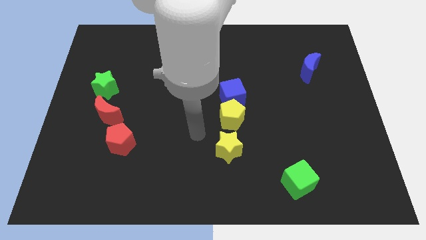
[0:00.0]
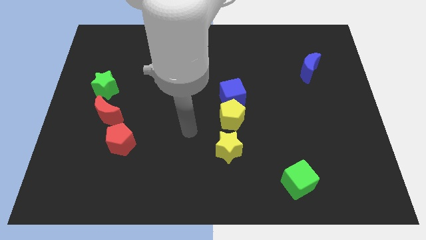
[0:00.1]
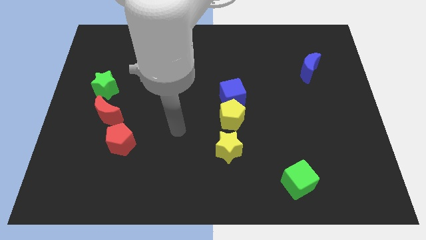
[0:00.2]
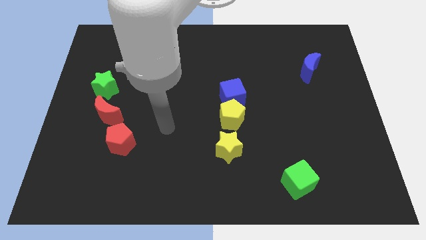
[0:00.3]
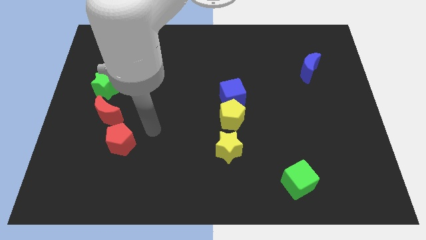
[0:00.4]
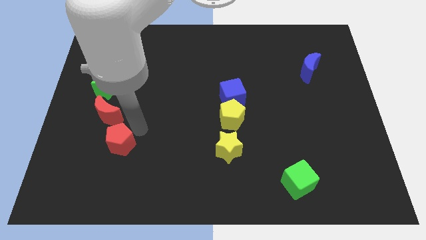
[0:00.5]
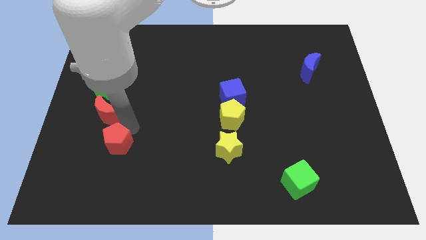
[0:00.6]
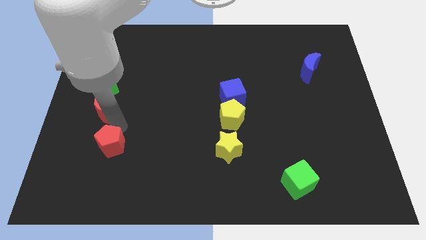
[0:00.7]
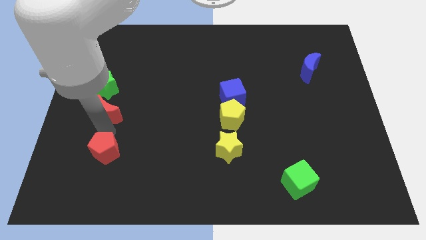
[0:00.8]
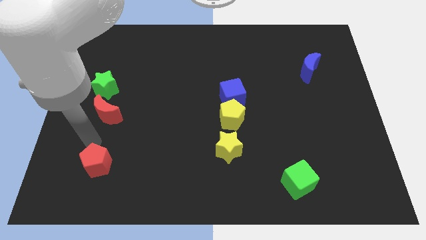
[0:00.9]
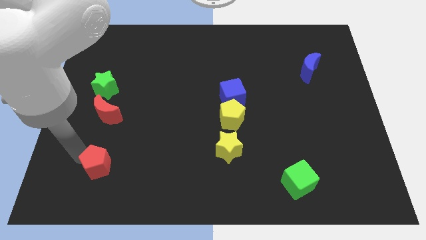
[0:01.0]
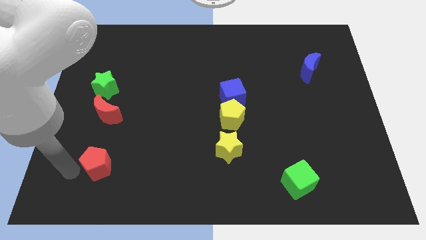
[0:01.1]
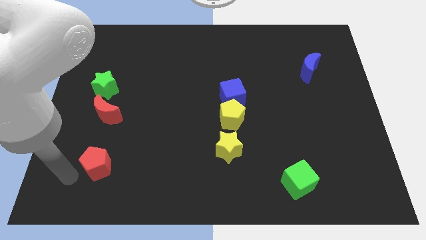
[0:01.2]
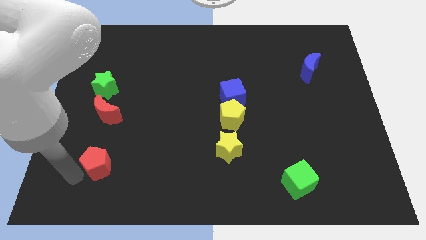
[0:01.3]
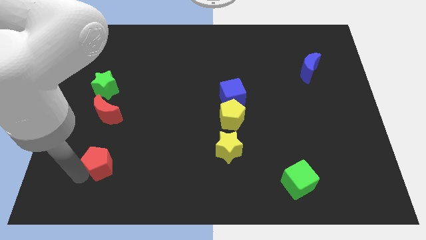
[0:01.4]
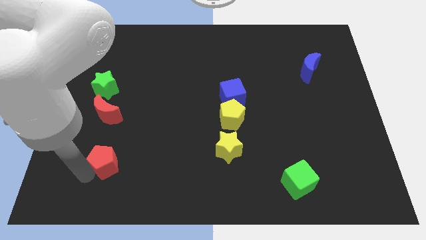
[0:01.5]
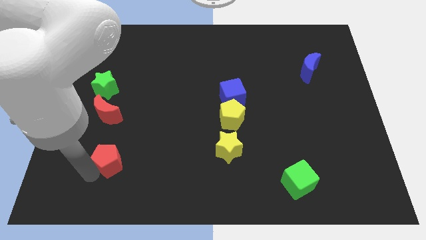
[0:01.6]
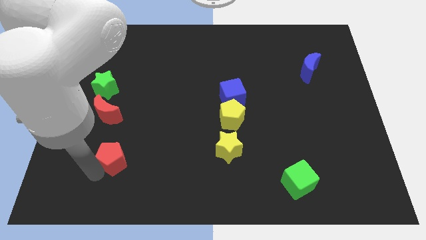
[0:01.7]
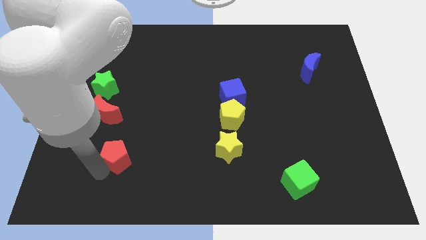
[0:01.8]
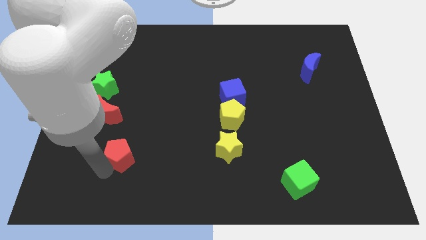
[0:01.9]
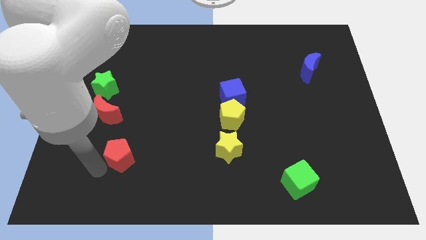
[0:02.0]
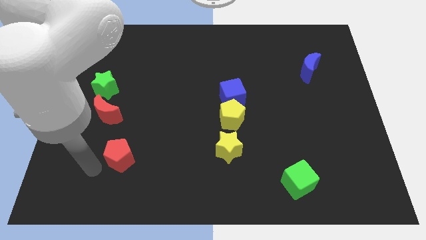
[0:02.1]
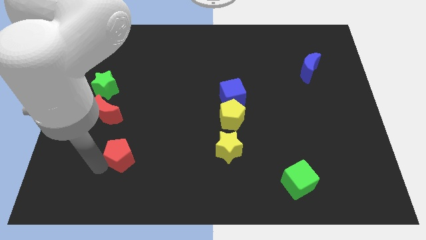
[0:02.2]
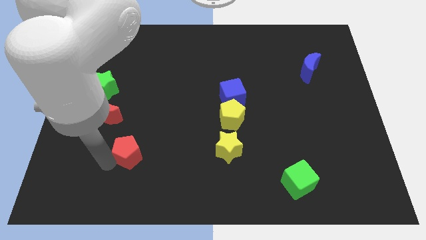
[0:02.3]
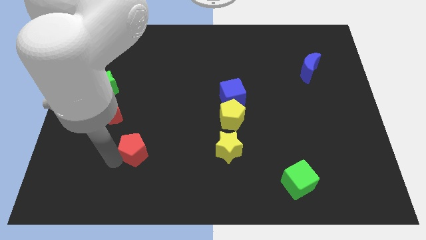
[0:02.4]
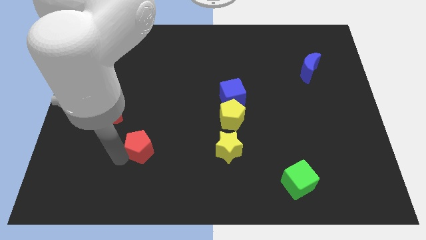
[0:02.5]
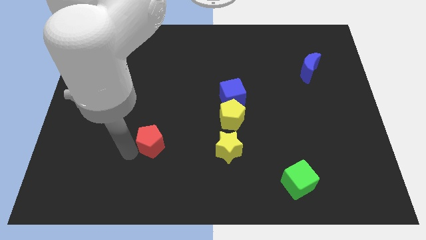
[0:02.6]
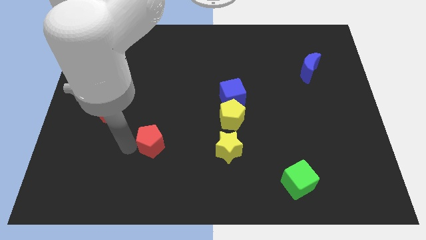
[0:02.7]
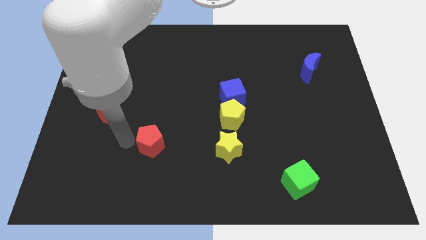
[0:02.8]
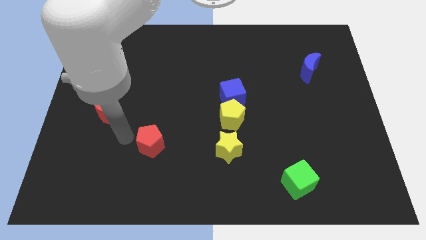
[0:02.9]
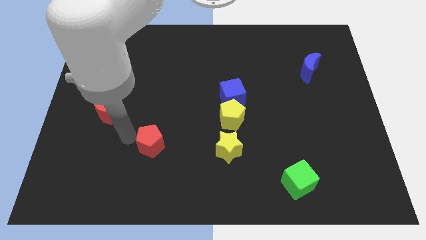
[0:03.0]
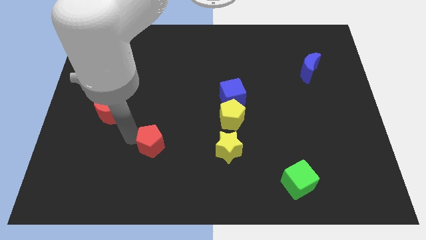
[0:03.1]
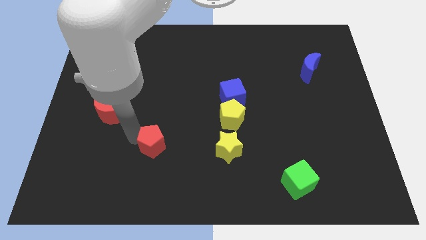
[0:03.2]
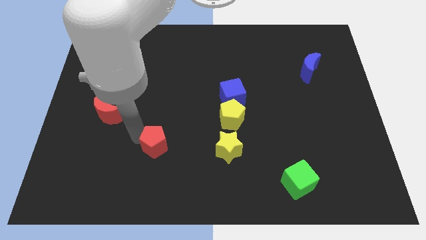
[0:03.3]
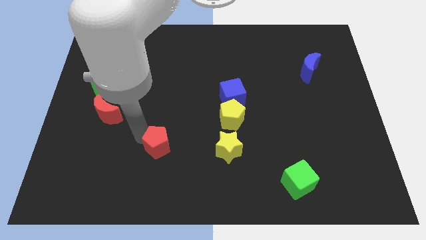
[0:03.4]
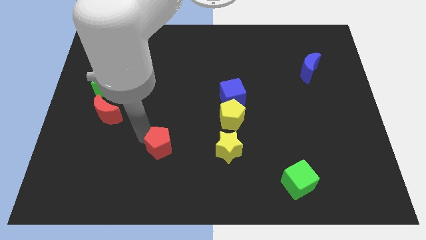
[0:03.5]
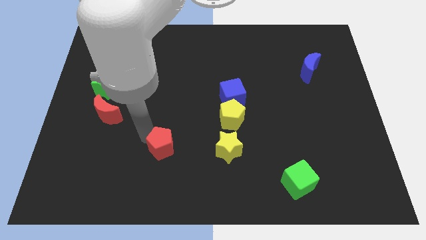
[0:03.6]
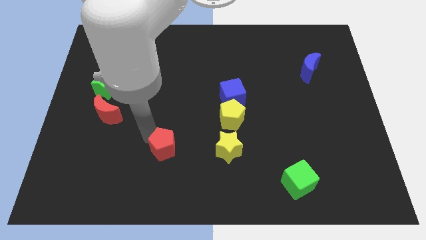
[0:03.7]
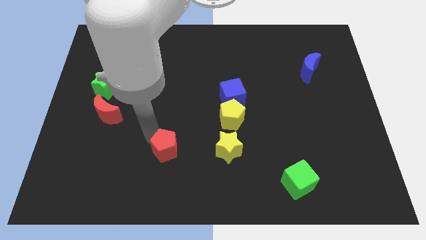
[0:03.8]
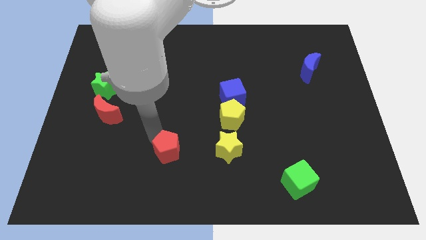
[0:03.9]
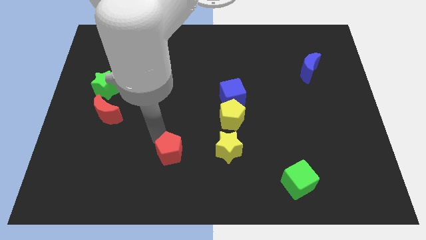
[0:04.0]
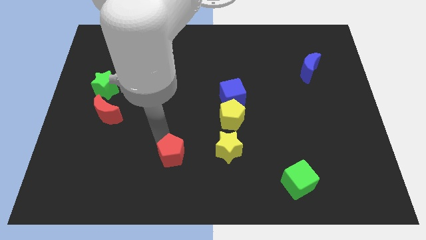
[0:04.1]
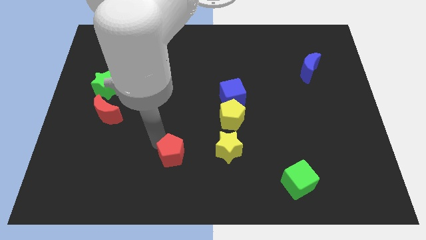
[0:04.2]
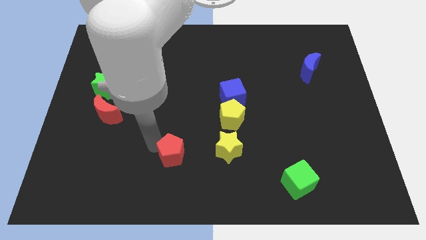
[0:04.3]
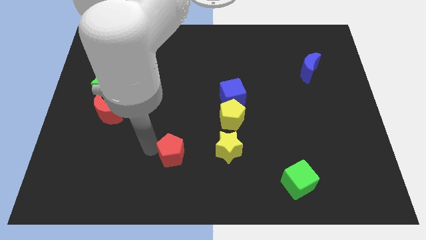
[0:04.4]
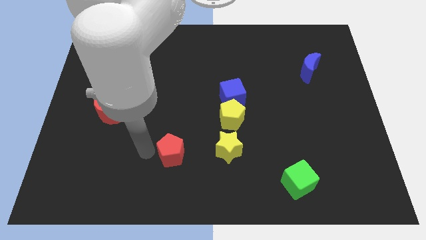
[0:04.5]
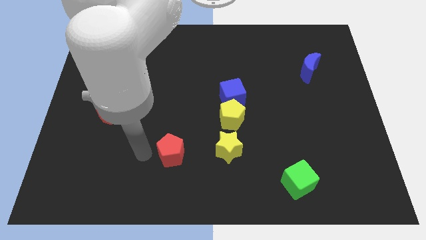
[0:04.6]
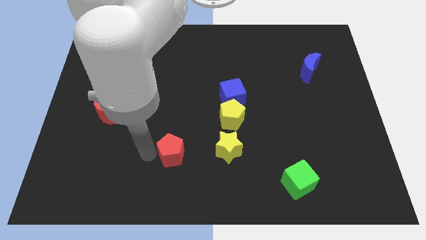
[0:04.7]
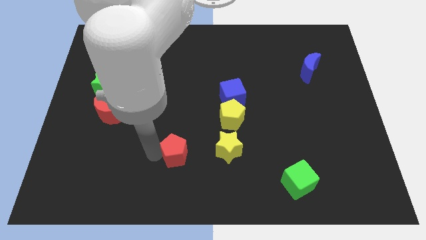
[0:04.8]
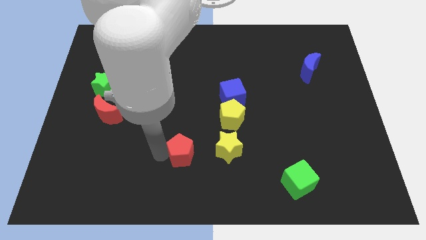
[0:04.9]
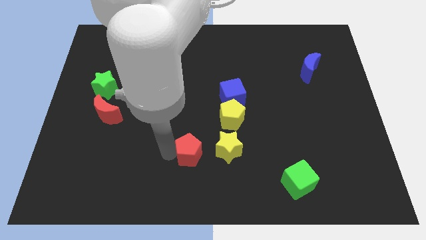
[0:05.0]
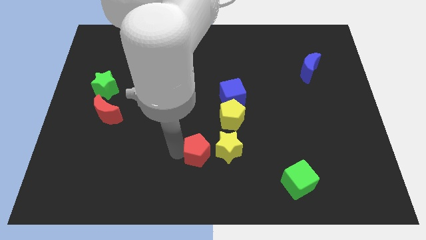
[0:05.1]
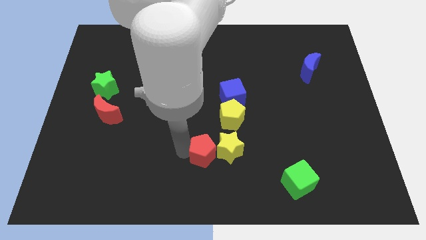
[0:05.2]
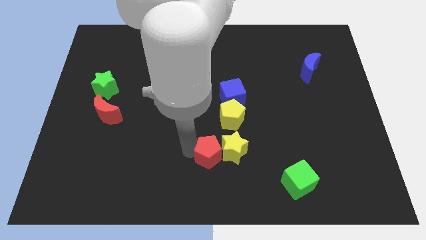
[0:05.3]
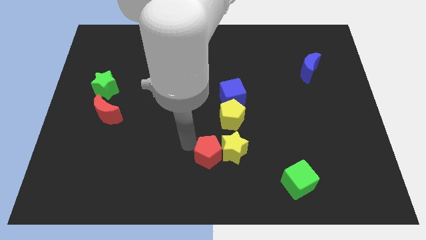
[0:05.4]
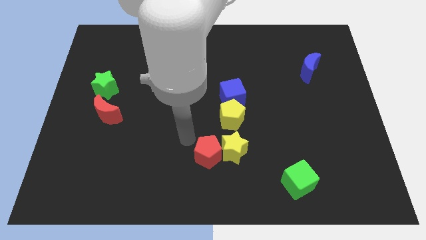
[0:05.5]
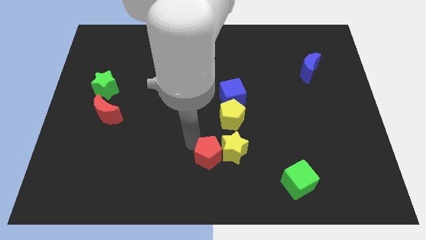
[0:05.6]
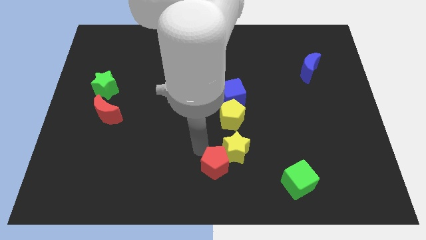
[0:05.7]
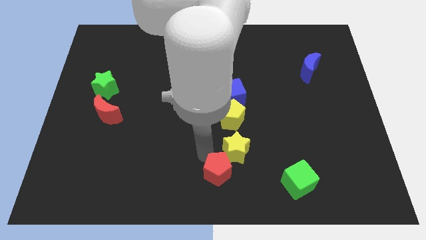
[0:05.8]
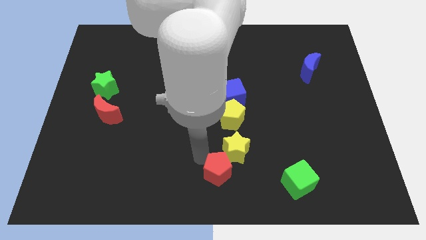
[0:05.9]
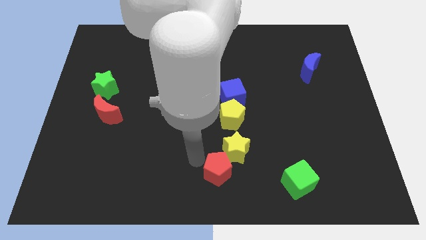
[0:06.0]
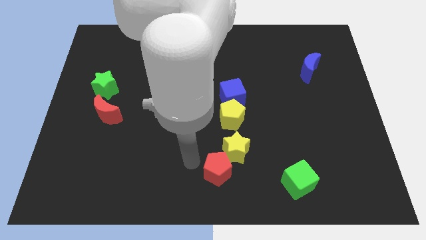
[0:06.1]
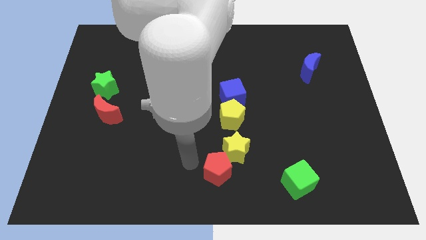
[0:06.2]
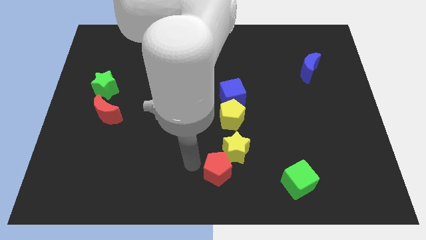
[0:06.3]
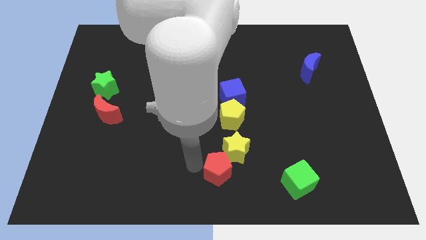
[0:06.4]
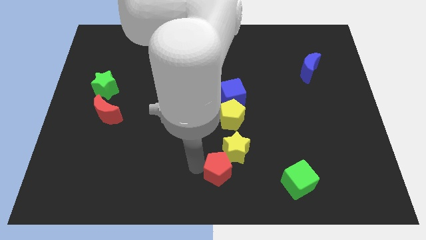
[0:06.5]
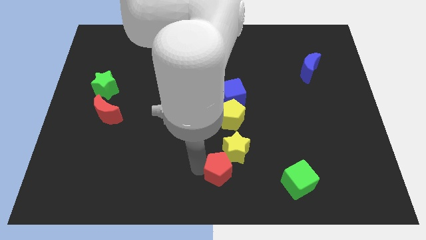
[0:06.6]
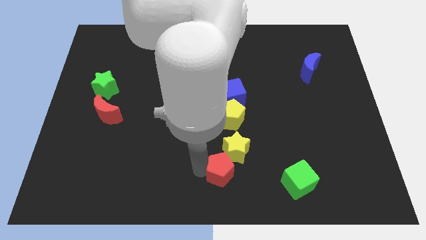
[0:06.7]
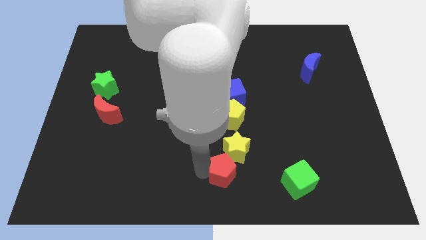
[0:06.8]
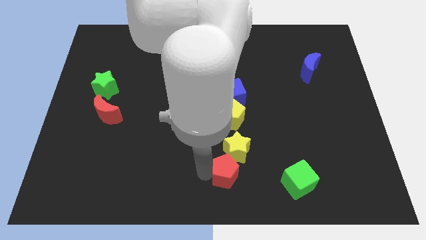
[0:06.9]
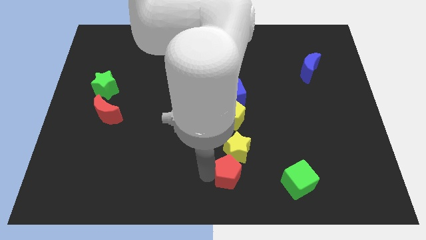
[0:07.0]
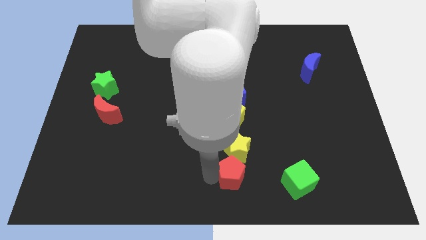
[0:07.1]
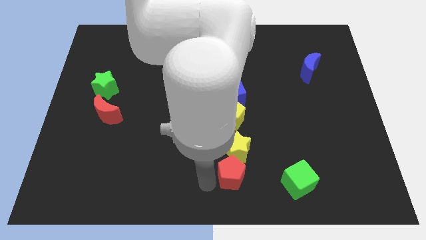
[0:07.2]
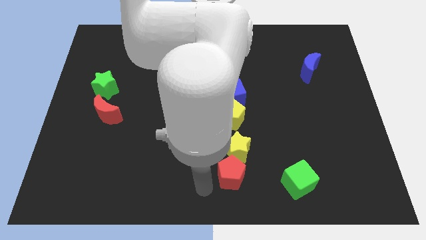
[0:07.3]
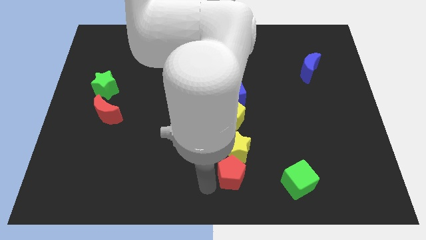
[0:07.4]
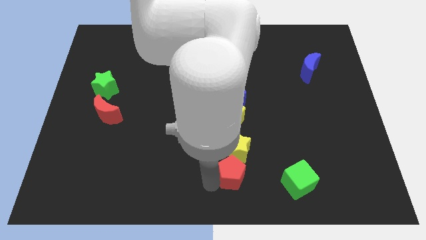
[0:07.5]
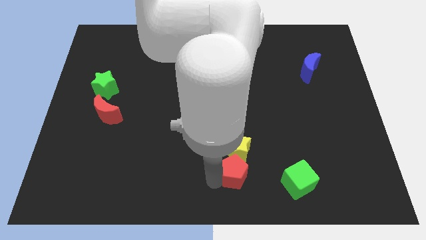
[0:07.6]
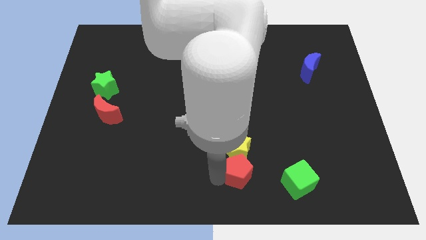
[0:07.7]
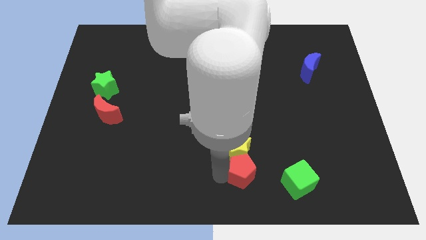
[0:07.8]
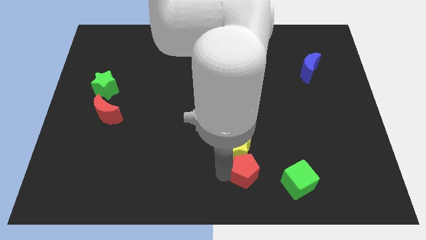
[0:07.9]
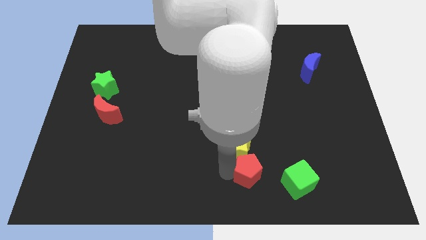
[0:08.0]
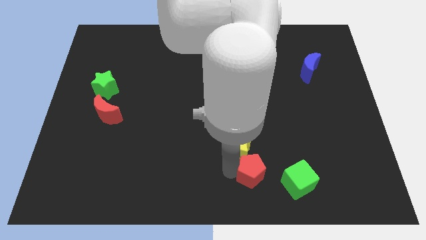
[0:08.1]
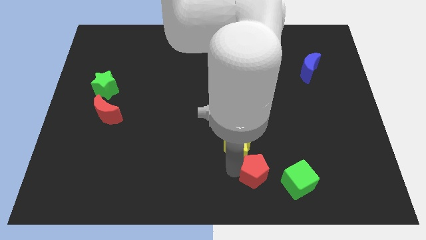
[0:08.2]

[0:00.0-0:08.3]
move the red pentagon to the top left of the green cube
